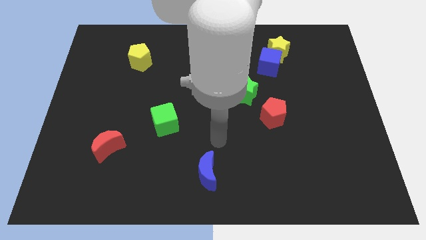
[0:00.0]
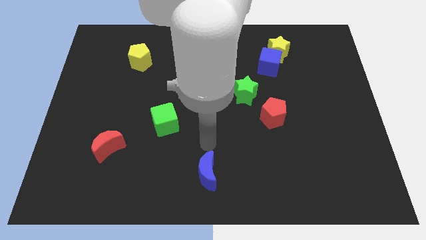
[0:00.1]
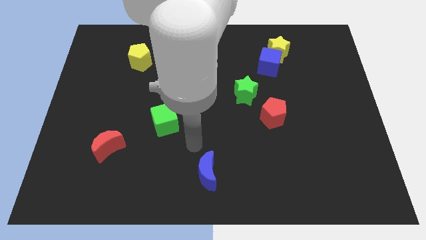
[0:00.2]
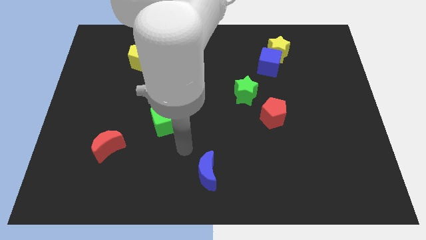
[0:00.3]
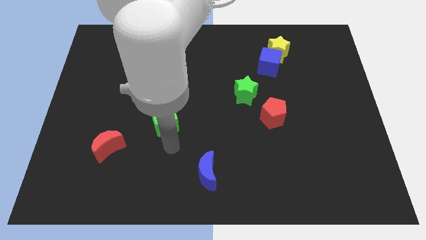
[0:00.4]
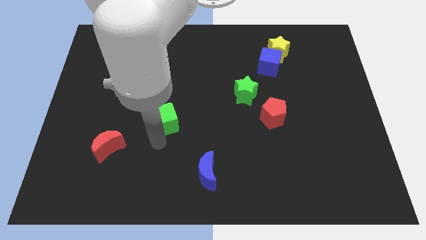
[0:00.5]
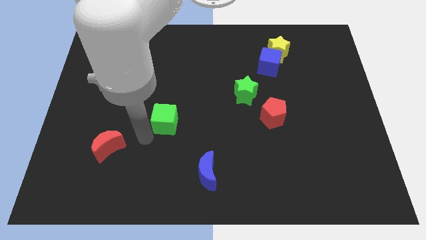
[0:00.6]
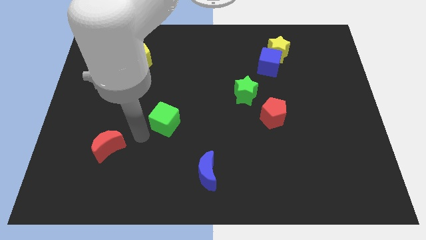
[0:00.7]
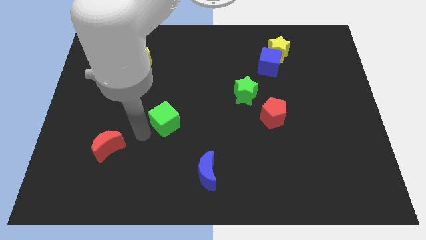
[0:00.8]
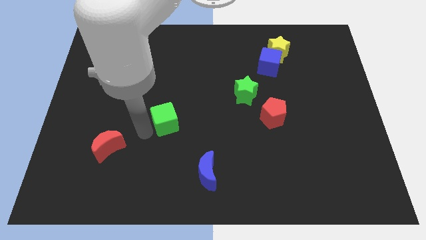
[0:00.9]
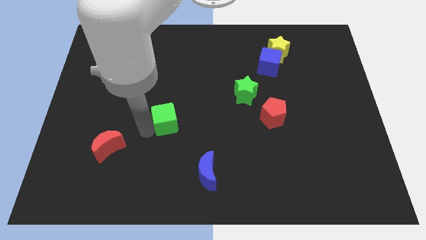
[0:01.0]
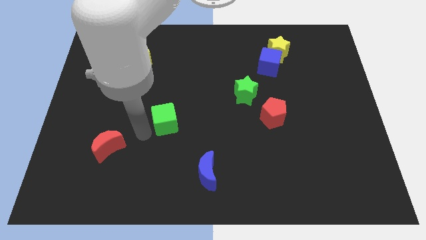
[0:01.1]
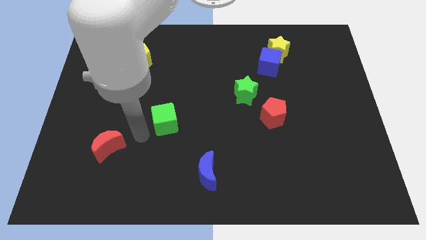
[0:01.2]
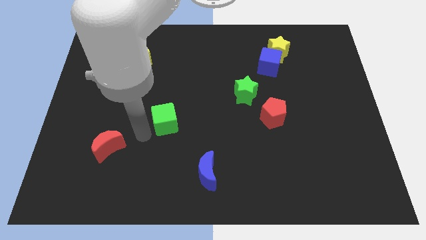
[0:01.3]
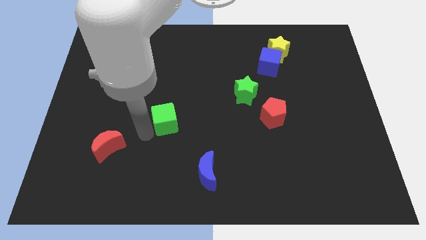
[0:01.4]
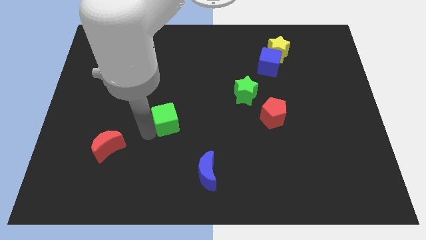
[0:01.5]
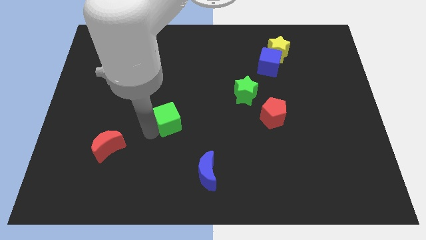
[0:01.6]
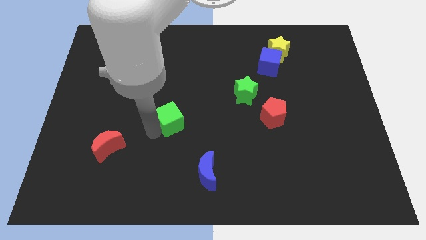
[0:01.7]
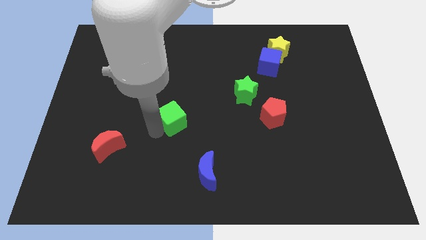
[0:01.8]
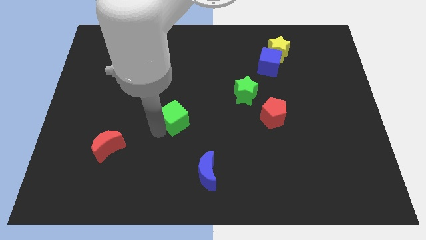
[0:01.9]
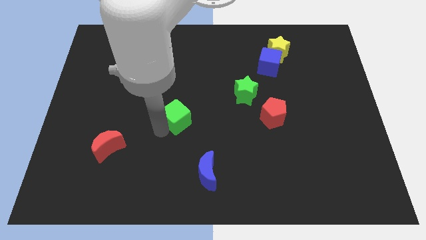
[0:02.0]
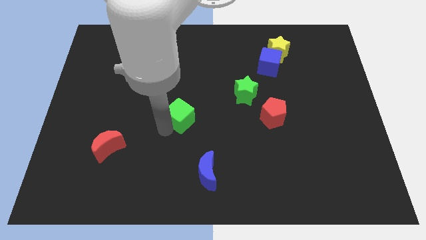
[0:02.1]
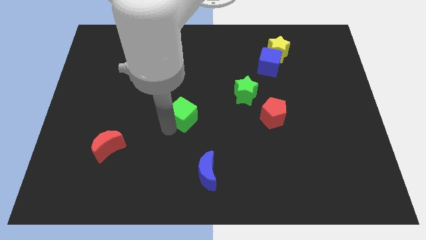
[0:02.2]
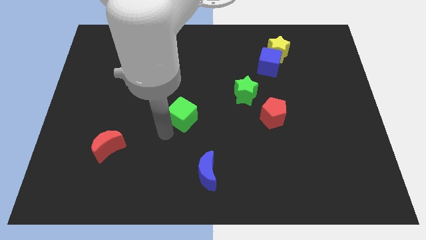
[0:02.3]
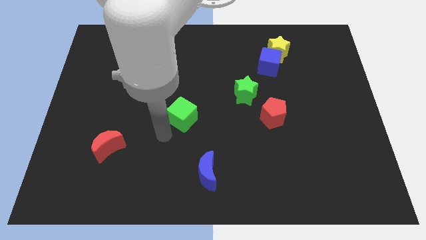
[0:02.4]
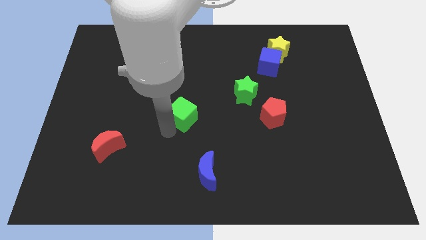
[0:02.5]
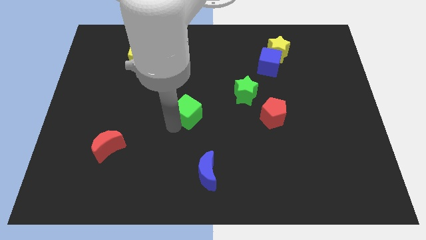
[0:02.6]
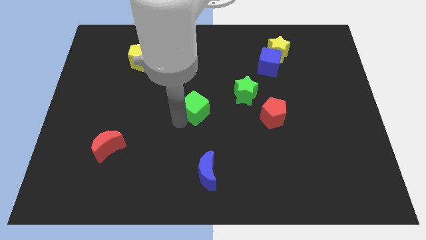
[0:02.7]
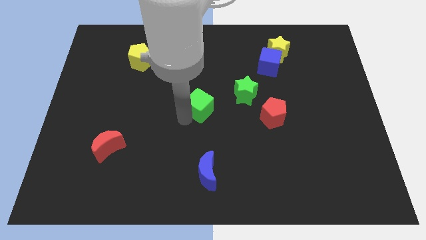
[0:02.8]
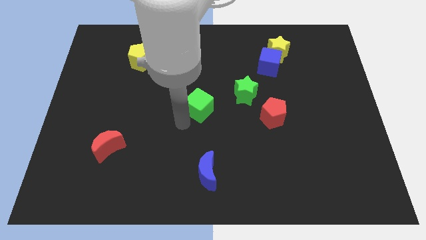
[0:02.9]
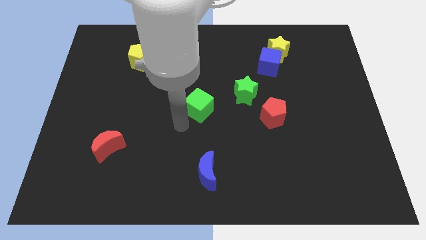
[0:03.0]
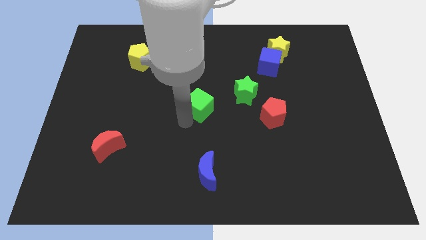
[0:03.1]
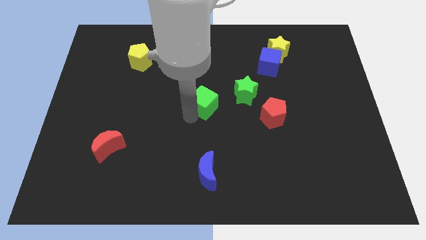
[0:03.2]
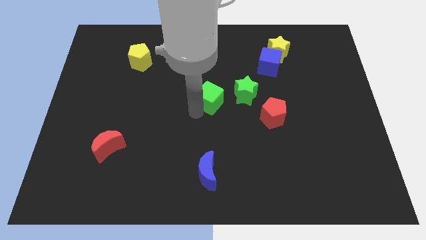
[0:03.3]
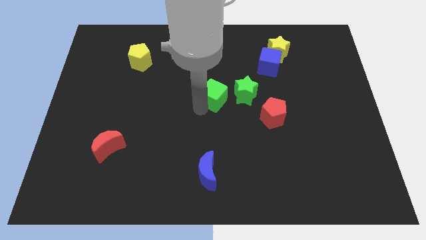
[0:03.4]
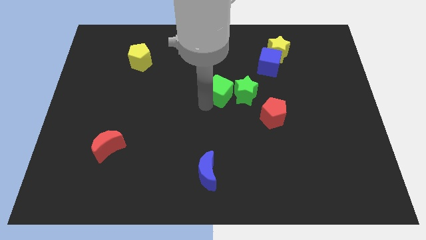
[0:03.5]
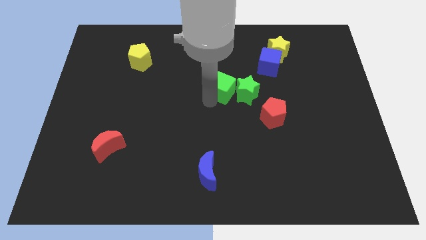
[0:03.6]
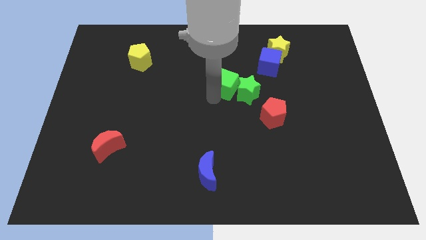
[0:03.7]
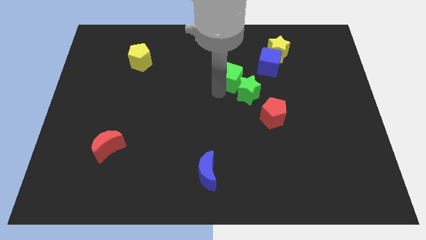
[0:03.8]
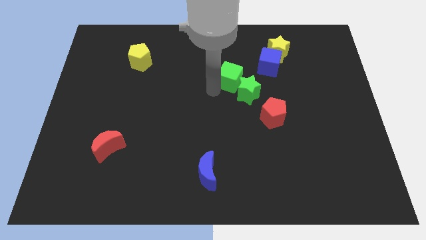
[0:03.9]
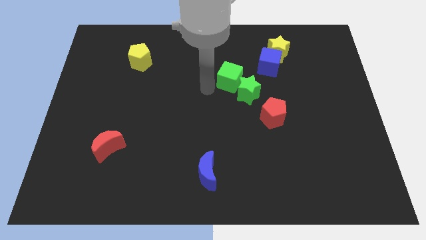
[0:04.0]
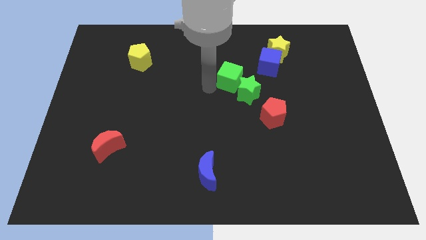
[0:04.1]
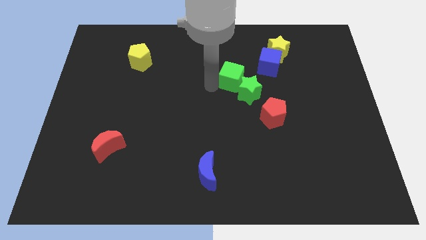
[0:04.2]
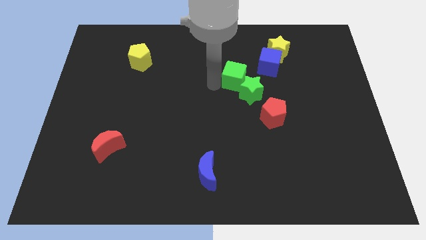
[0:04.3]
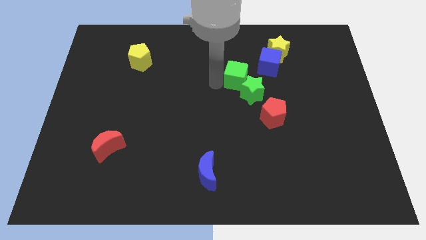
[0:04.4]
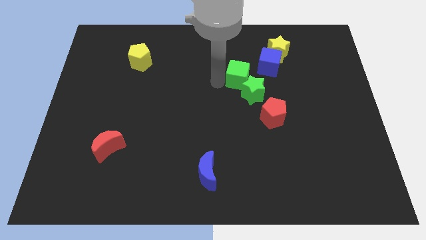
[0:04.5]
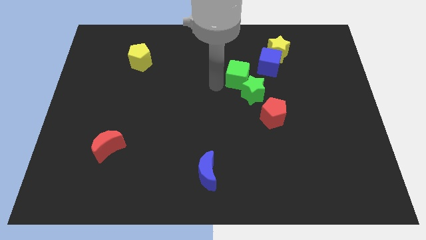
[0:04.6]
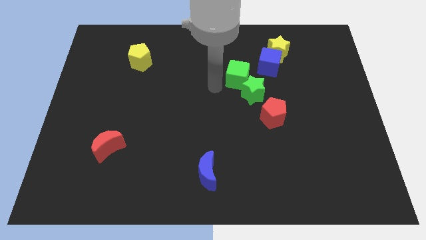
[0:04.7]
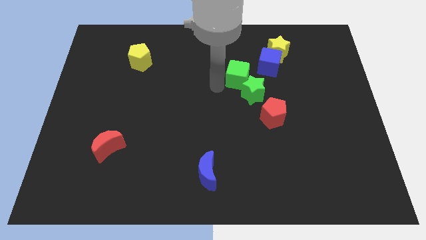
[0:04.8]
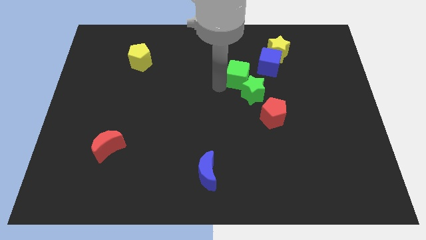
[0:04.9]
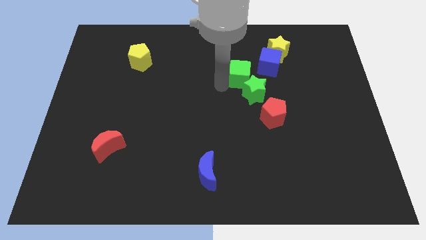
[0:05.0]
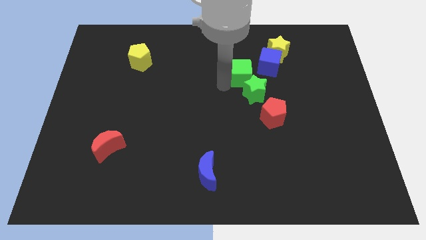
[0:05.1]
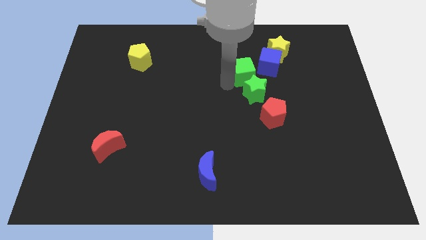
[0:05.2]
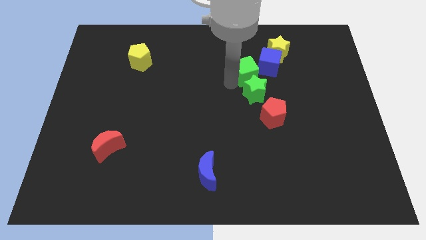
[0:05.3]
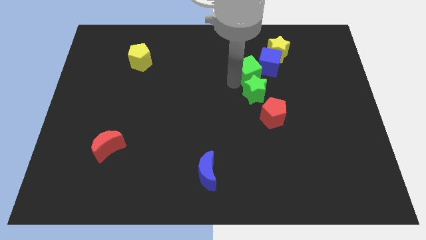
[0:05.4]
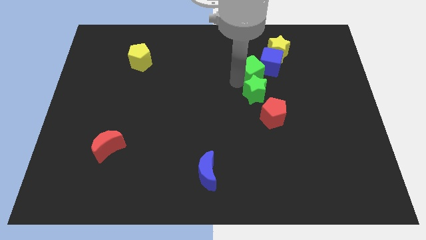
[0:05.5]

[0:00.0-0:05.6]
put the green cube next to the blue cube

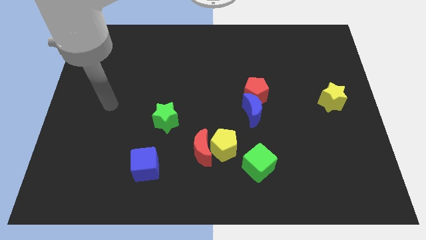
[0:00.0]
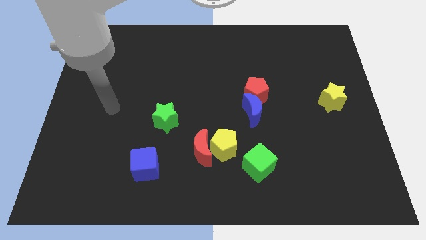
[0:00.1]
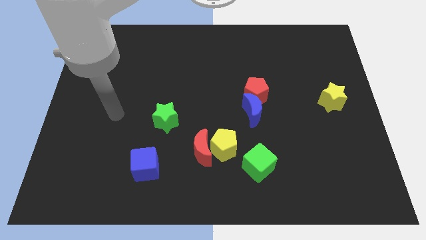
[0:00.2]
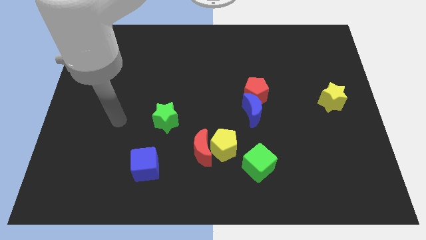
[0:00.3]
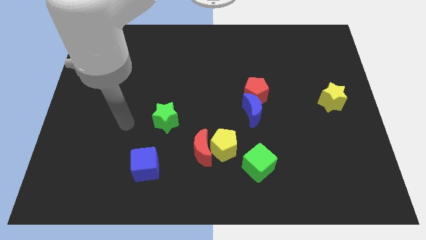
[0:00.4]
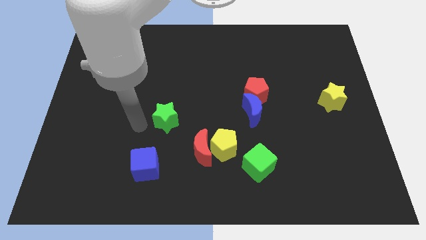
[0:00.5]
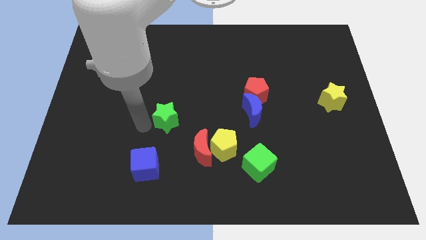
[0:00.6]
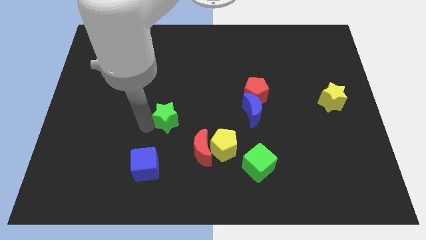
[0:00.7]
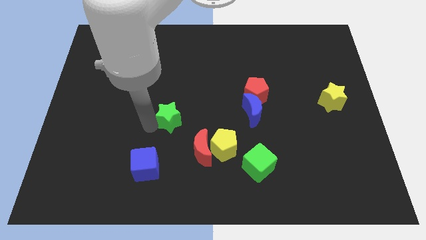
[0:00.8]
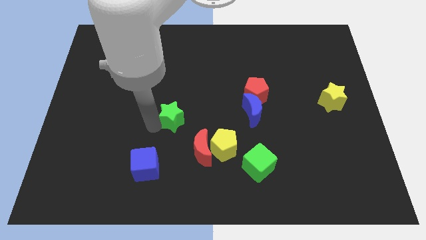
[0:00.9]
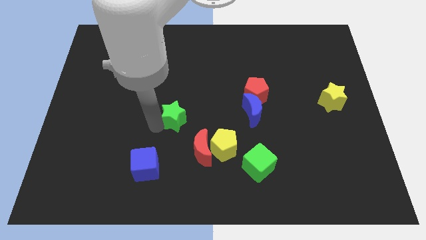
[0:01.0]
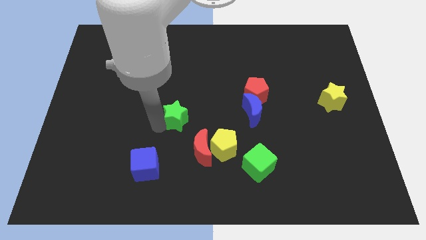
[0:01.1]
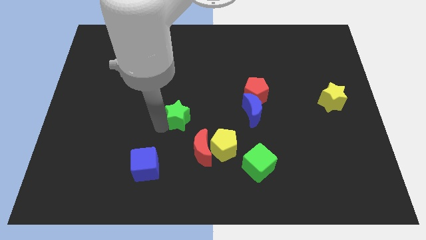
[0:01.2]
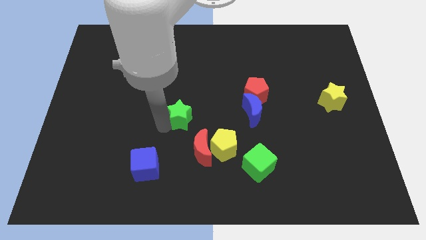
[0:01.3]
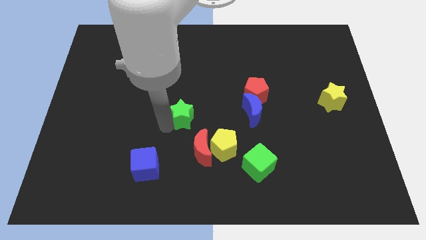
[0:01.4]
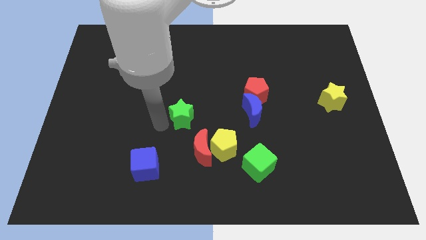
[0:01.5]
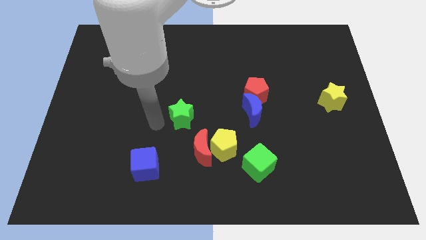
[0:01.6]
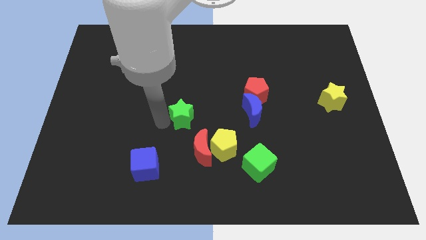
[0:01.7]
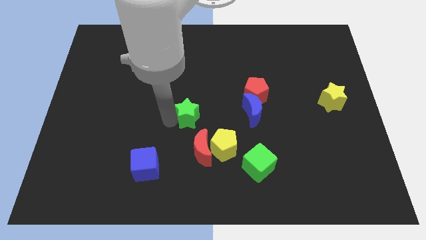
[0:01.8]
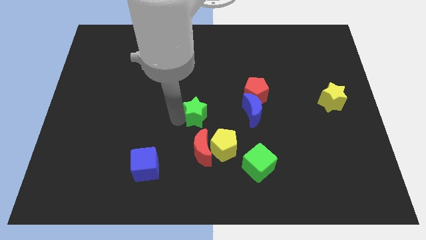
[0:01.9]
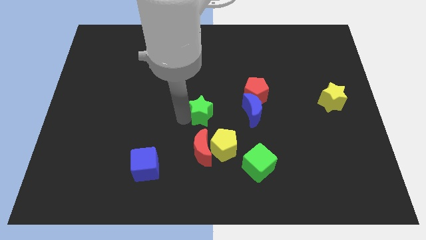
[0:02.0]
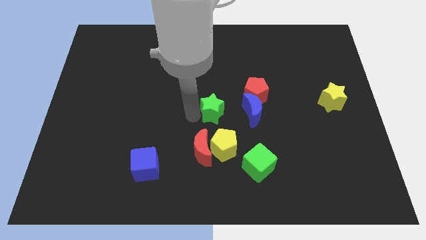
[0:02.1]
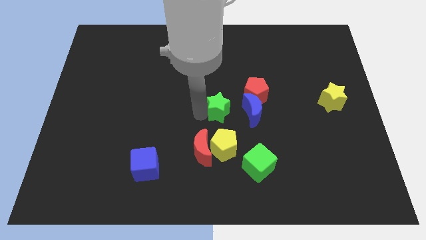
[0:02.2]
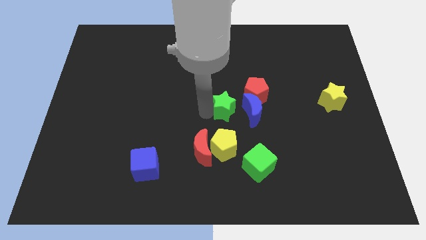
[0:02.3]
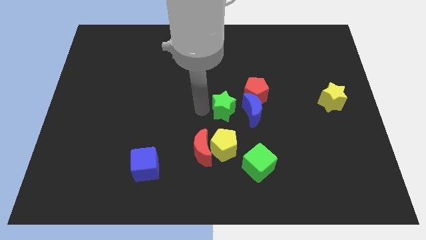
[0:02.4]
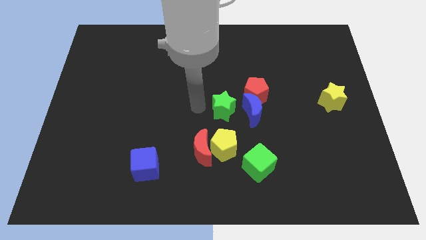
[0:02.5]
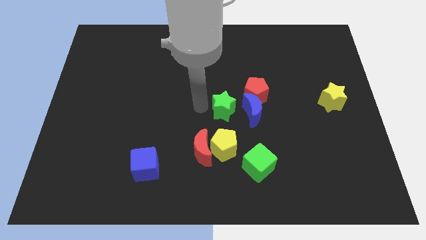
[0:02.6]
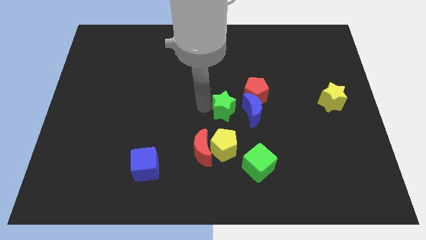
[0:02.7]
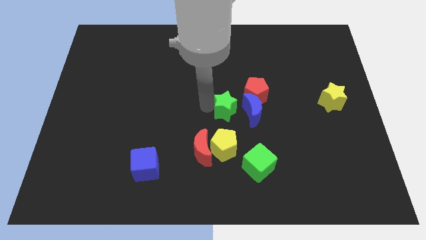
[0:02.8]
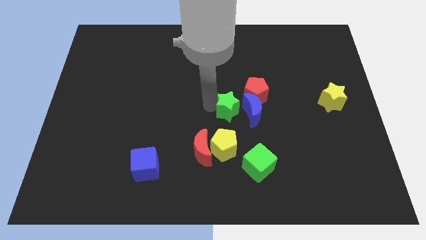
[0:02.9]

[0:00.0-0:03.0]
slide the green star next to the blue moon
